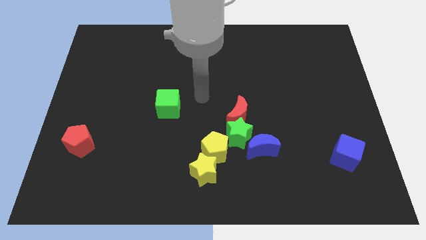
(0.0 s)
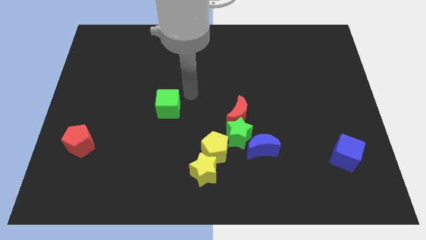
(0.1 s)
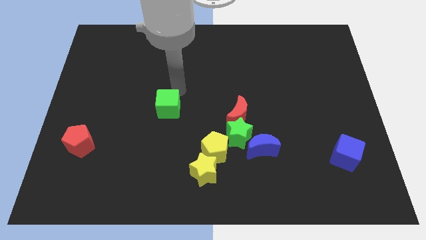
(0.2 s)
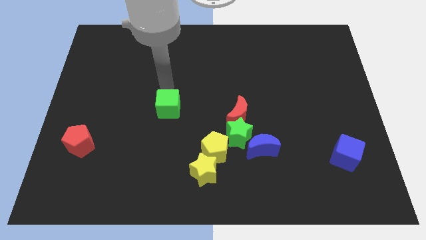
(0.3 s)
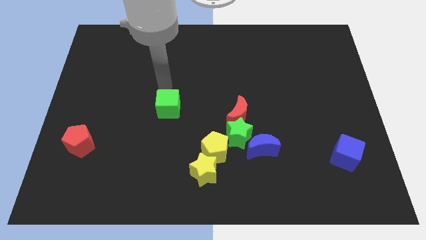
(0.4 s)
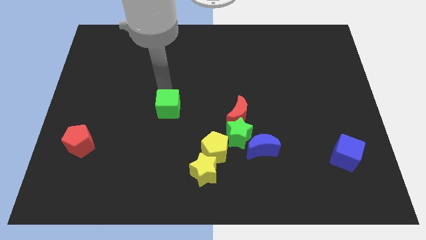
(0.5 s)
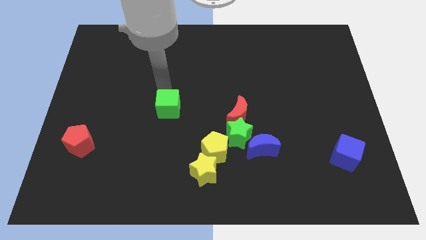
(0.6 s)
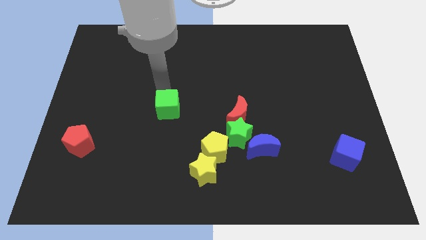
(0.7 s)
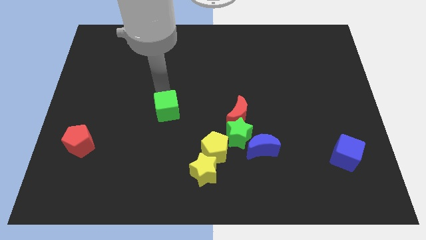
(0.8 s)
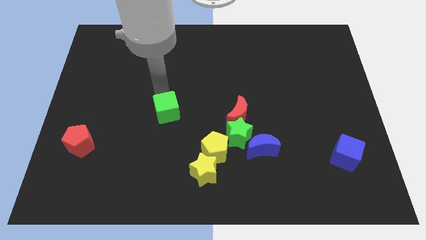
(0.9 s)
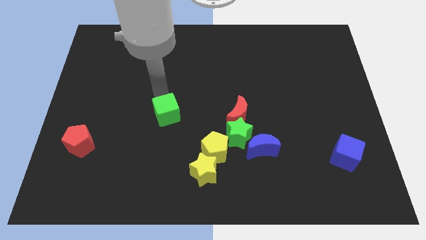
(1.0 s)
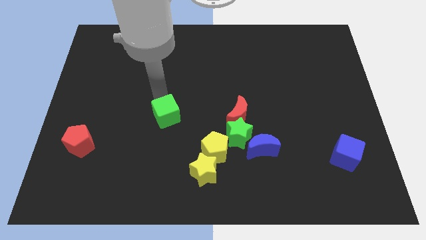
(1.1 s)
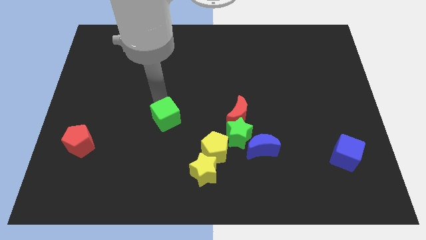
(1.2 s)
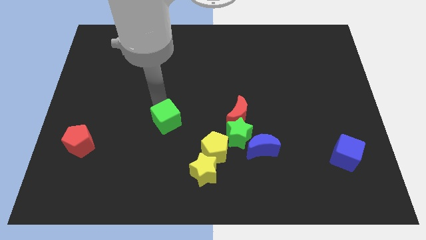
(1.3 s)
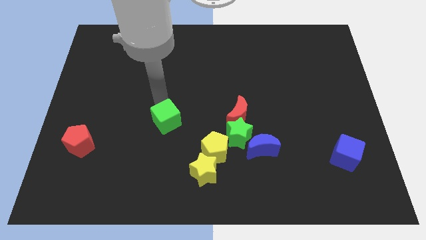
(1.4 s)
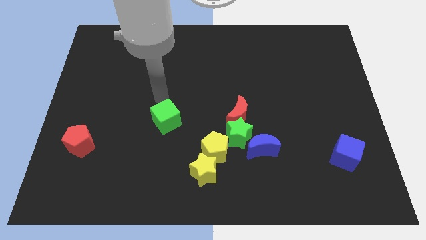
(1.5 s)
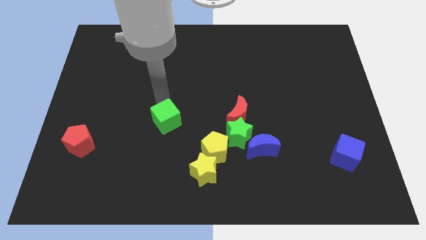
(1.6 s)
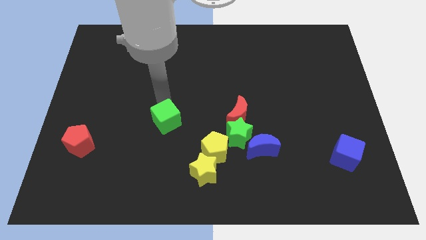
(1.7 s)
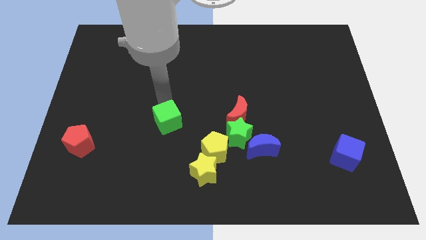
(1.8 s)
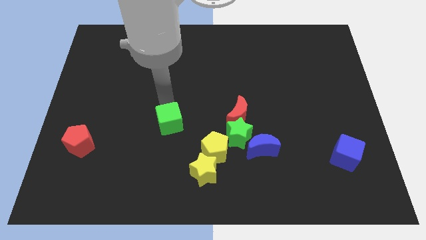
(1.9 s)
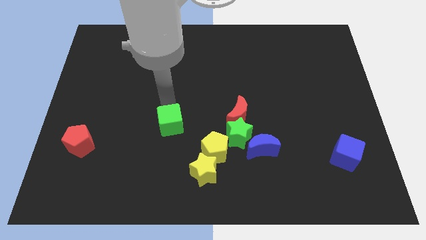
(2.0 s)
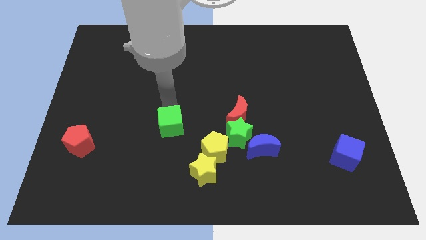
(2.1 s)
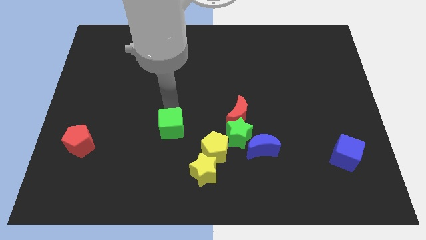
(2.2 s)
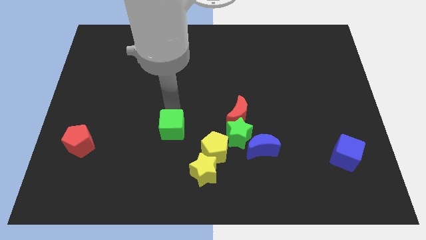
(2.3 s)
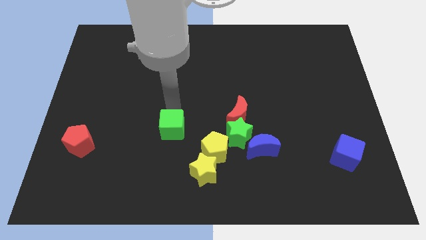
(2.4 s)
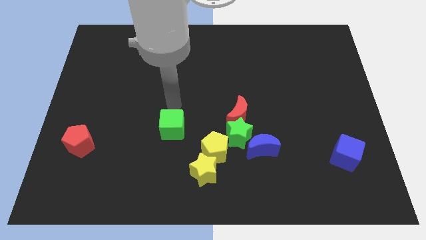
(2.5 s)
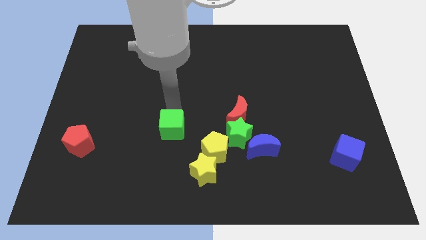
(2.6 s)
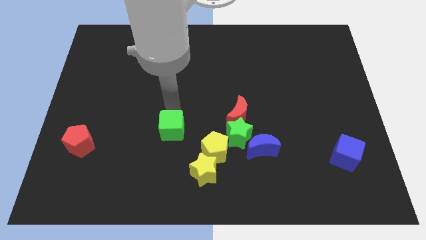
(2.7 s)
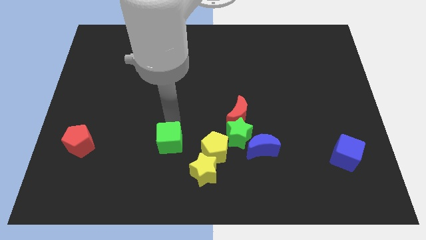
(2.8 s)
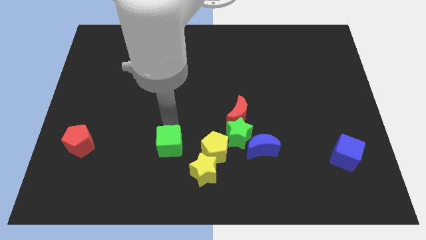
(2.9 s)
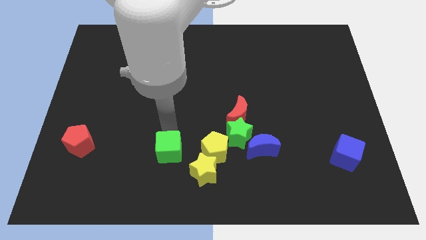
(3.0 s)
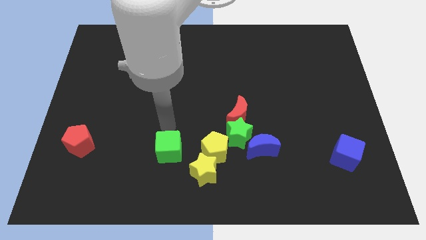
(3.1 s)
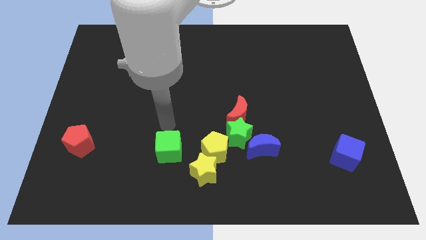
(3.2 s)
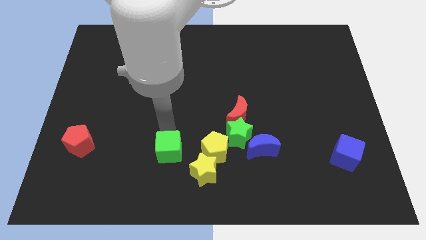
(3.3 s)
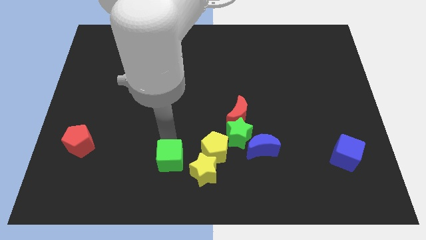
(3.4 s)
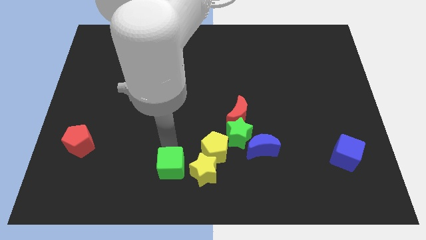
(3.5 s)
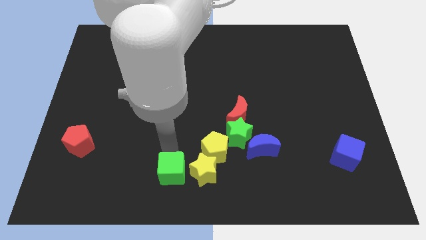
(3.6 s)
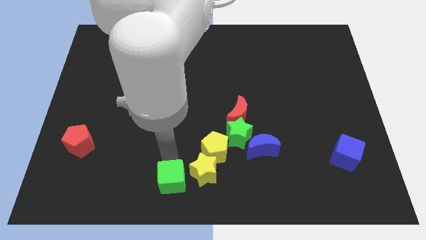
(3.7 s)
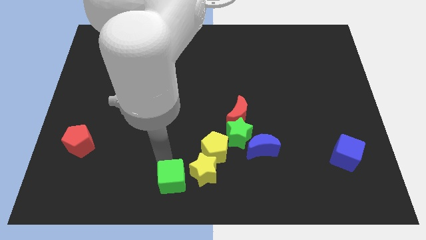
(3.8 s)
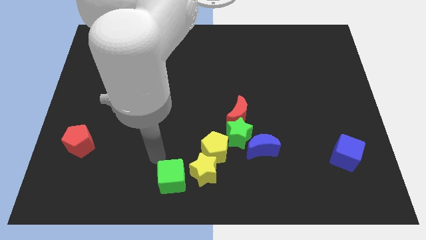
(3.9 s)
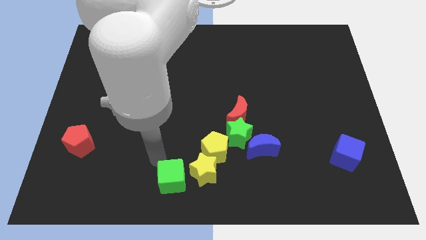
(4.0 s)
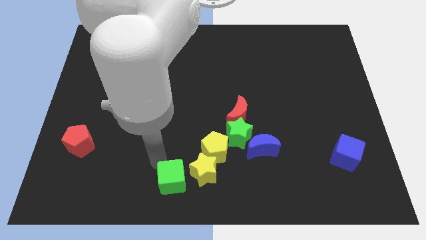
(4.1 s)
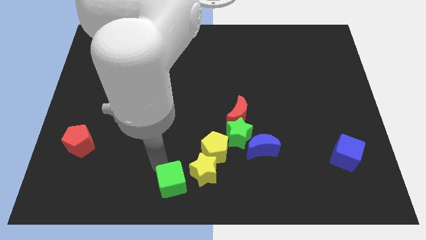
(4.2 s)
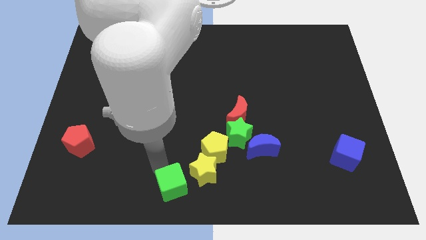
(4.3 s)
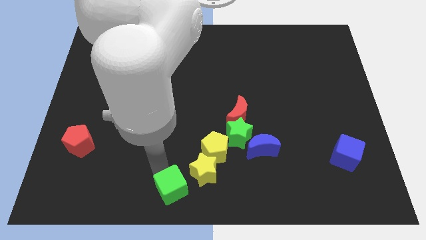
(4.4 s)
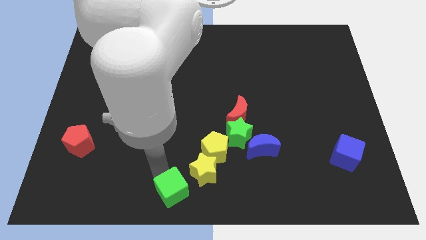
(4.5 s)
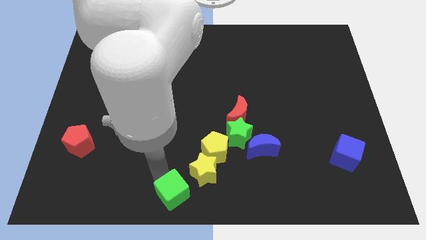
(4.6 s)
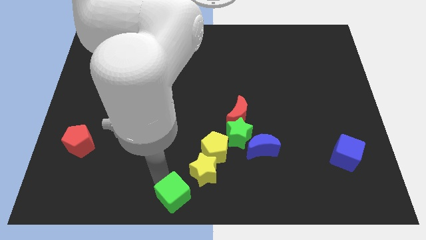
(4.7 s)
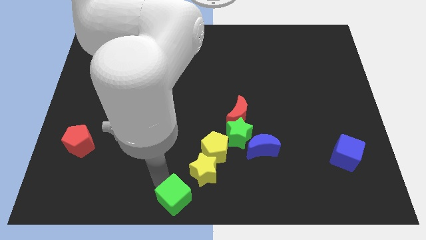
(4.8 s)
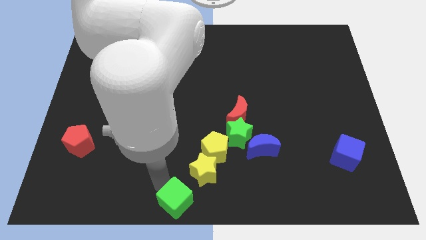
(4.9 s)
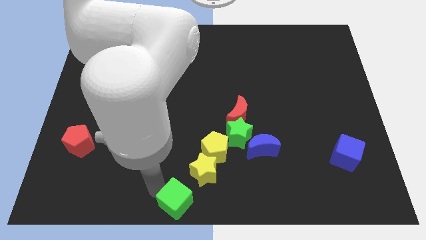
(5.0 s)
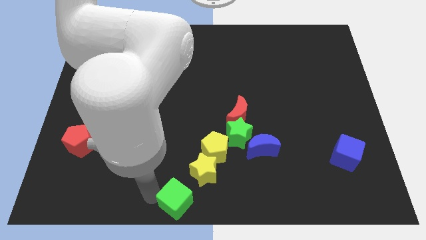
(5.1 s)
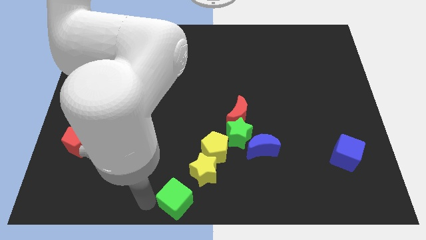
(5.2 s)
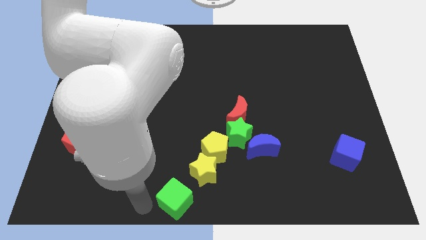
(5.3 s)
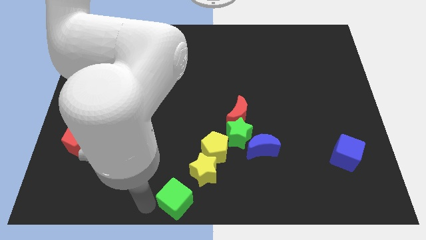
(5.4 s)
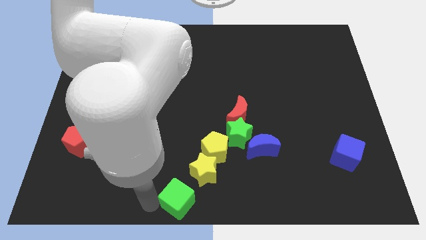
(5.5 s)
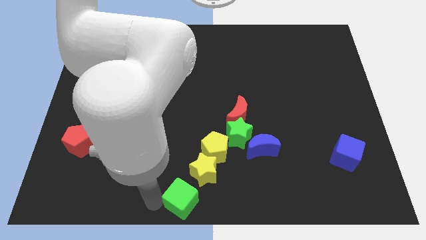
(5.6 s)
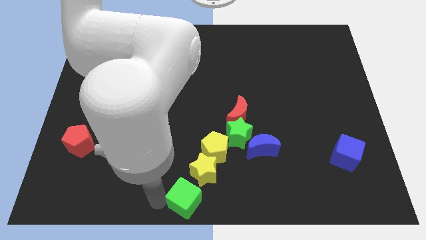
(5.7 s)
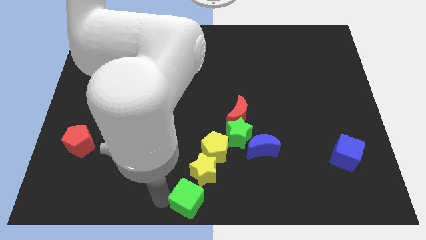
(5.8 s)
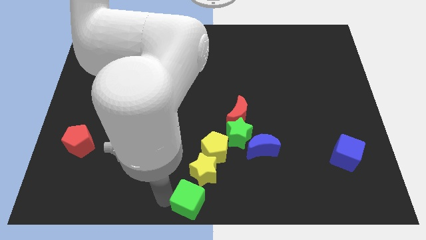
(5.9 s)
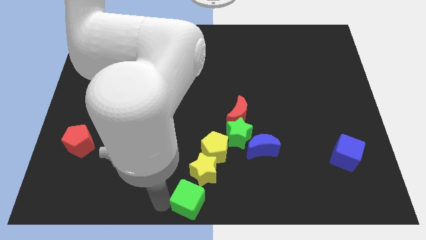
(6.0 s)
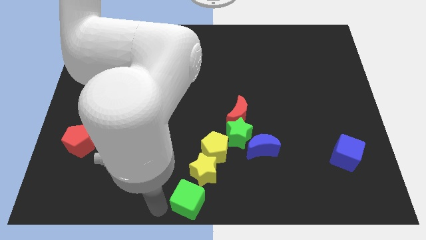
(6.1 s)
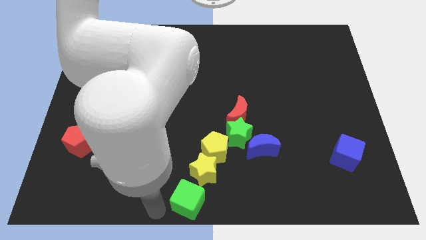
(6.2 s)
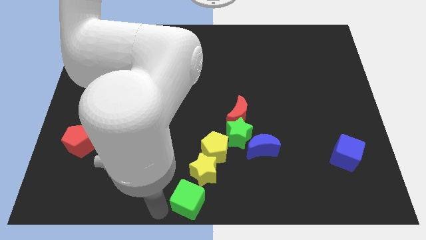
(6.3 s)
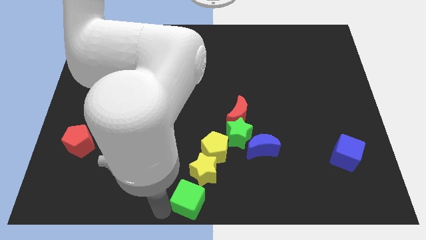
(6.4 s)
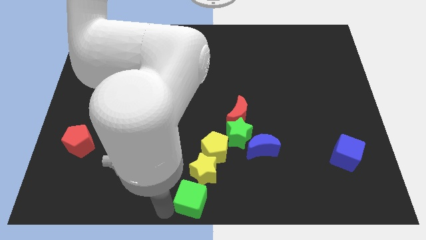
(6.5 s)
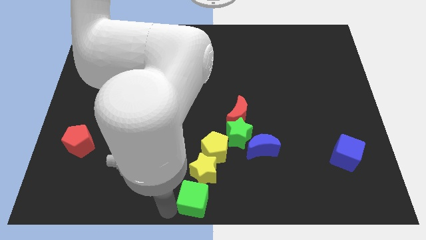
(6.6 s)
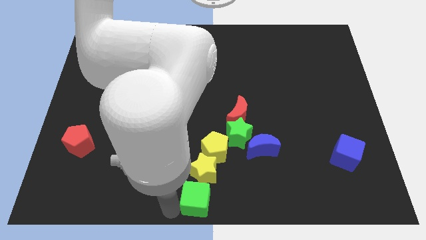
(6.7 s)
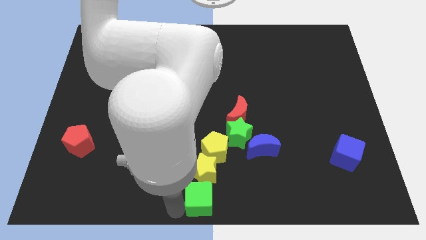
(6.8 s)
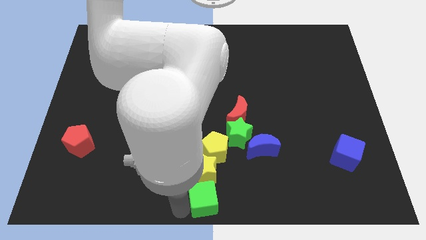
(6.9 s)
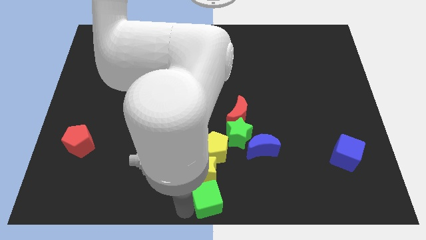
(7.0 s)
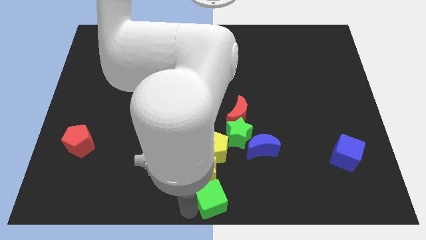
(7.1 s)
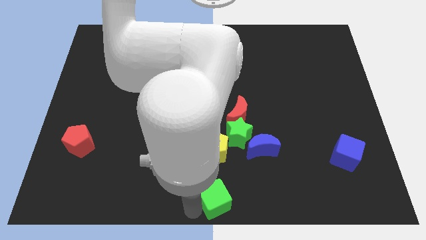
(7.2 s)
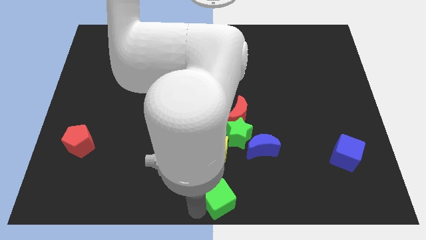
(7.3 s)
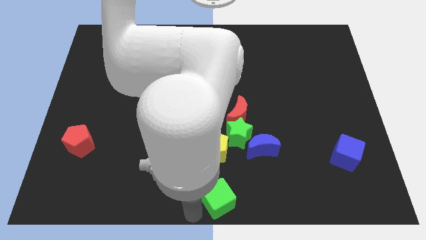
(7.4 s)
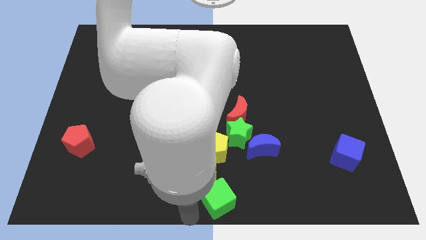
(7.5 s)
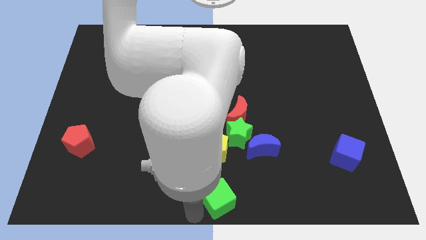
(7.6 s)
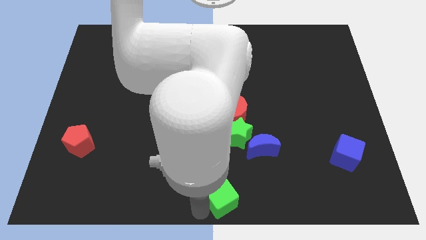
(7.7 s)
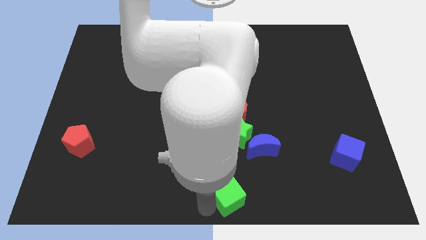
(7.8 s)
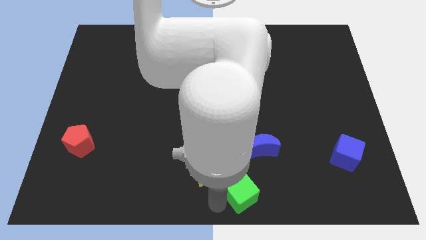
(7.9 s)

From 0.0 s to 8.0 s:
move the green cube right of the yellow star
